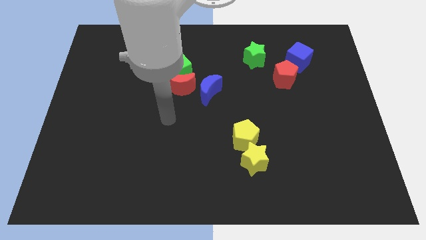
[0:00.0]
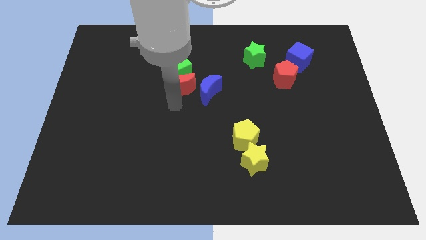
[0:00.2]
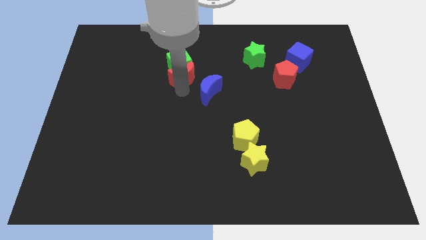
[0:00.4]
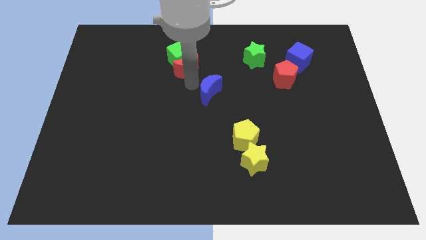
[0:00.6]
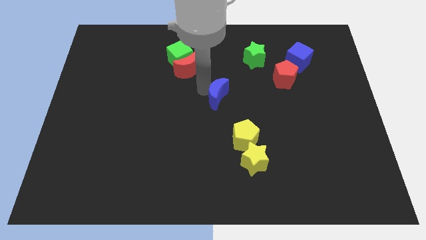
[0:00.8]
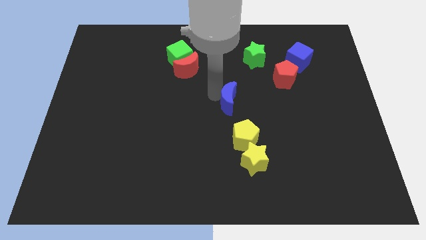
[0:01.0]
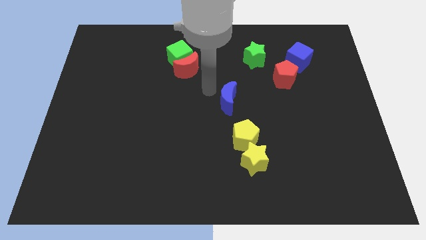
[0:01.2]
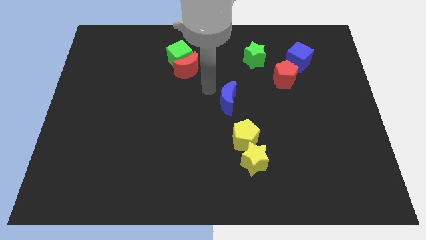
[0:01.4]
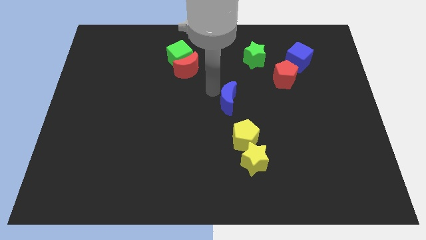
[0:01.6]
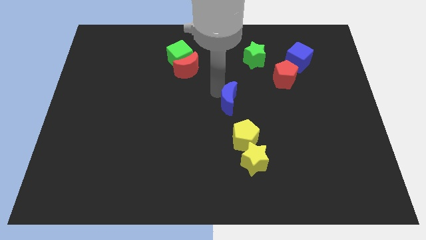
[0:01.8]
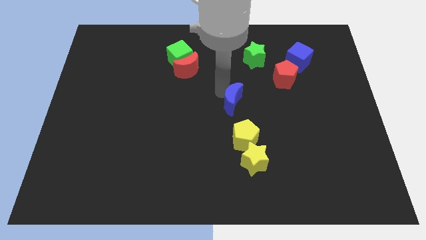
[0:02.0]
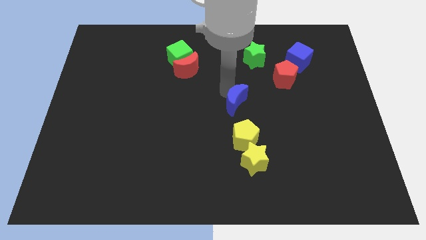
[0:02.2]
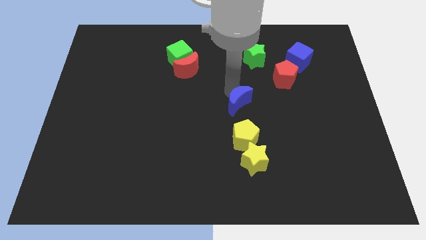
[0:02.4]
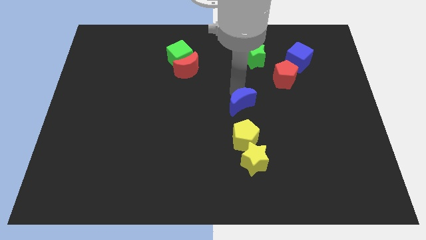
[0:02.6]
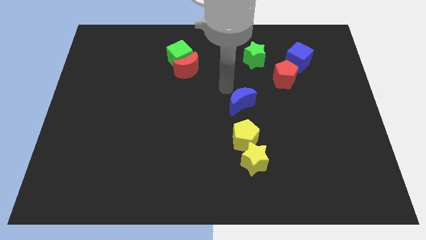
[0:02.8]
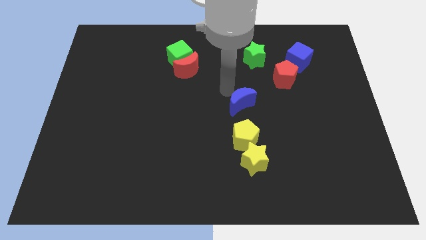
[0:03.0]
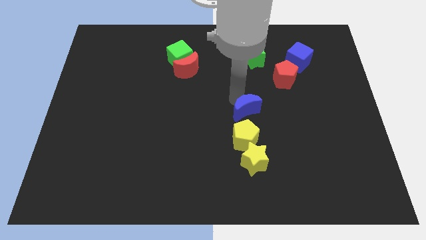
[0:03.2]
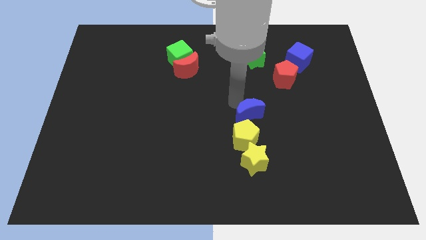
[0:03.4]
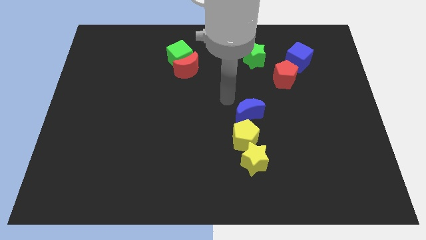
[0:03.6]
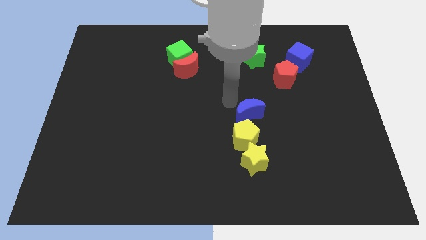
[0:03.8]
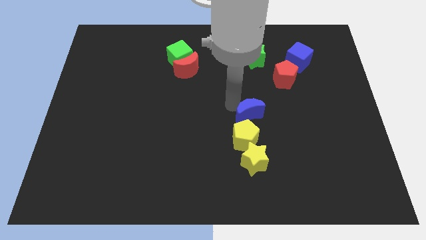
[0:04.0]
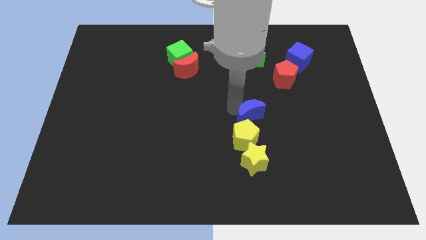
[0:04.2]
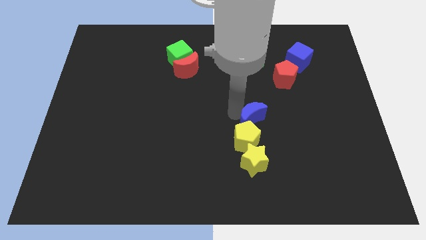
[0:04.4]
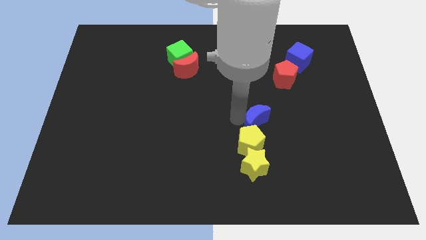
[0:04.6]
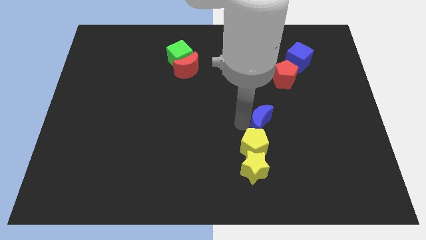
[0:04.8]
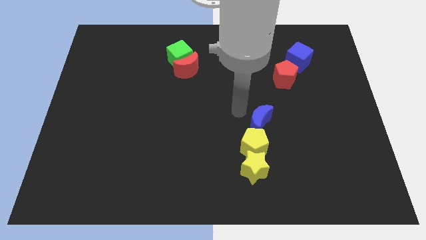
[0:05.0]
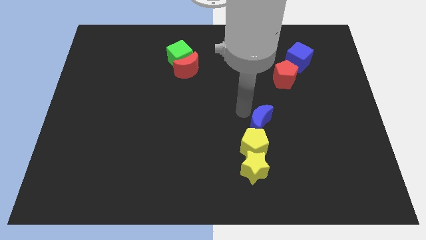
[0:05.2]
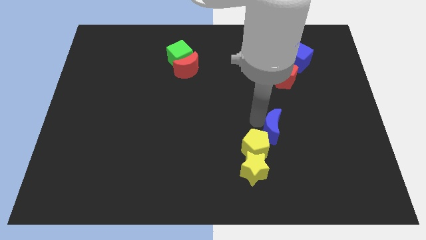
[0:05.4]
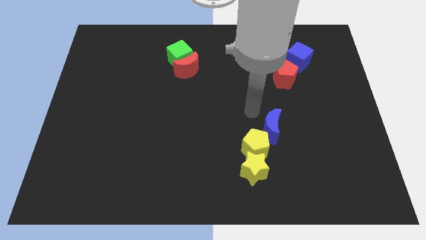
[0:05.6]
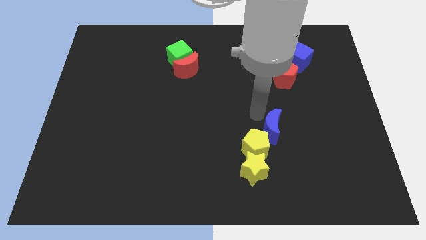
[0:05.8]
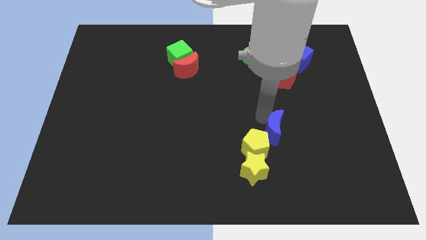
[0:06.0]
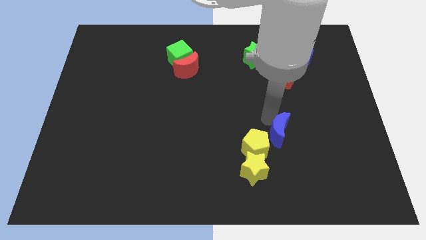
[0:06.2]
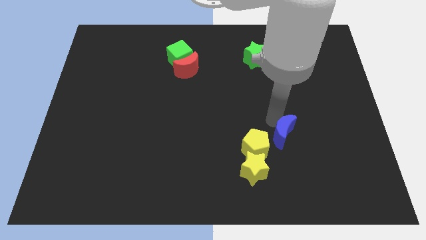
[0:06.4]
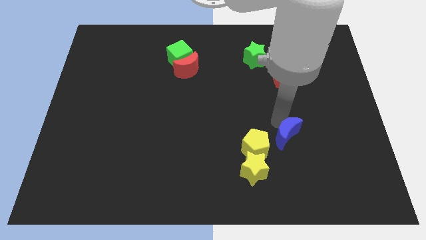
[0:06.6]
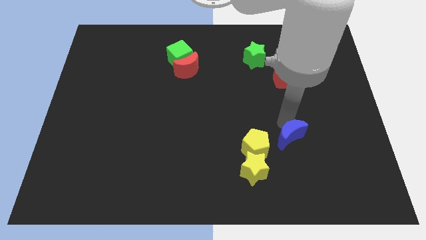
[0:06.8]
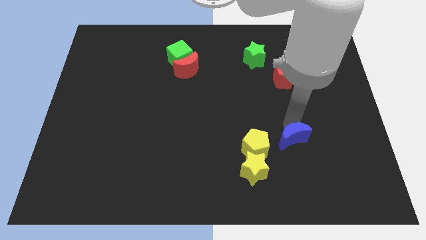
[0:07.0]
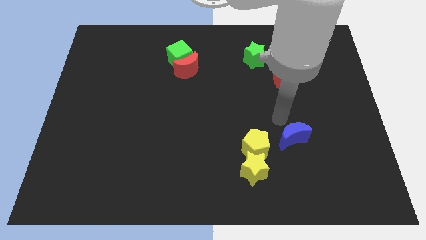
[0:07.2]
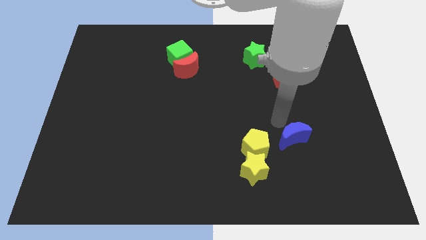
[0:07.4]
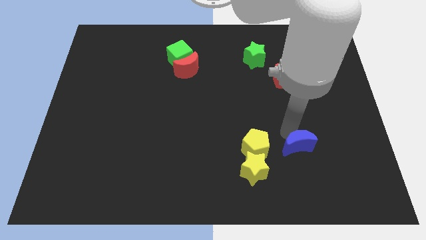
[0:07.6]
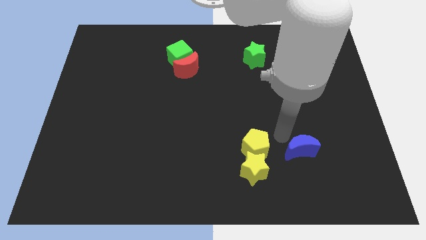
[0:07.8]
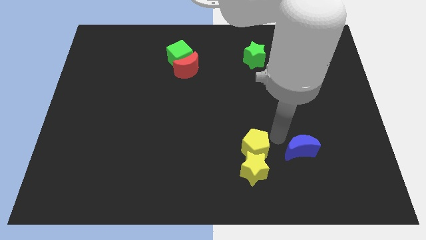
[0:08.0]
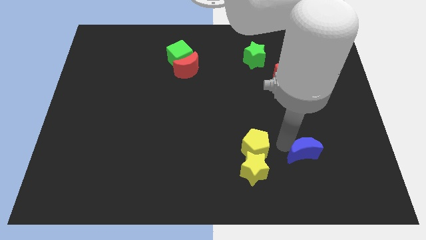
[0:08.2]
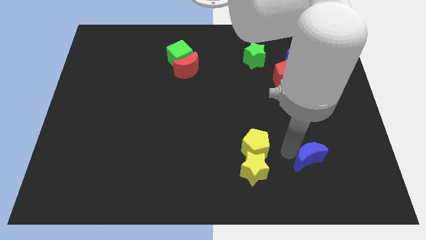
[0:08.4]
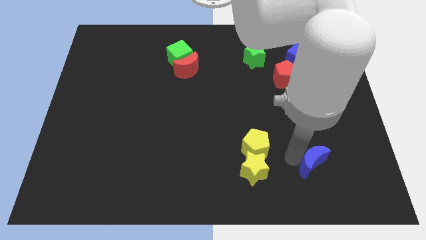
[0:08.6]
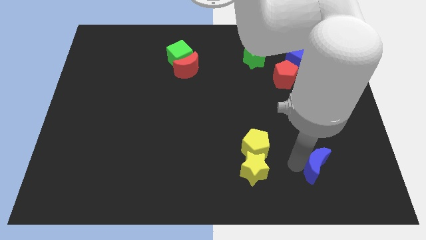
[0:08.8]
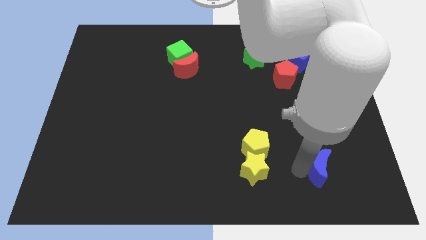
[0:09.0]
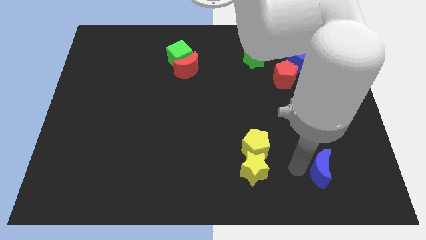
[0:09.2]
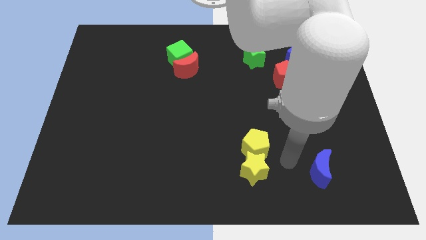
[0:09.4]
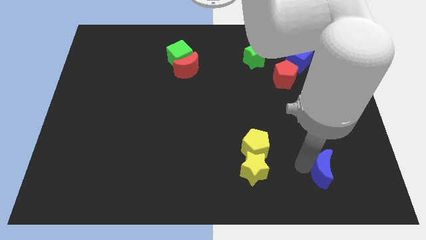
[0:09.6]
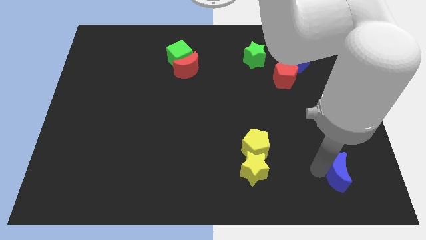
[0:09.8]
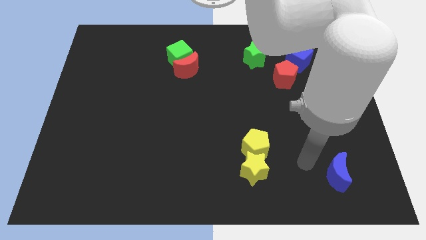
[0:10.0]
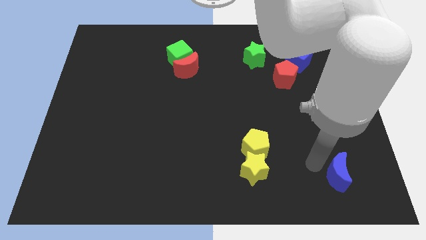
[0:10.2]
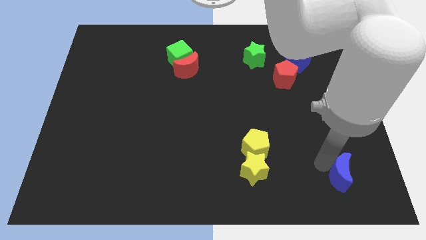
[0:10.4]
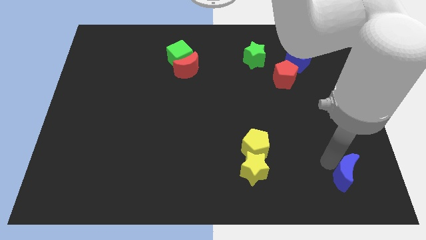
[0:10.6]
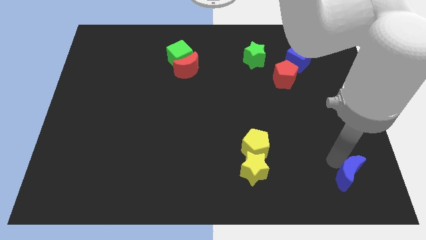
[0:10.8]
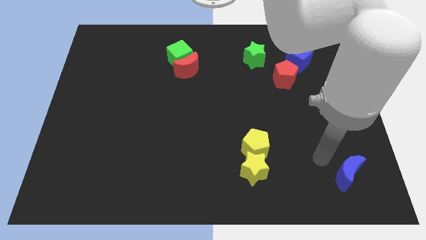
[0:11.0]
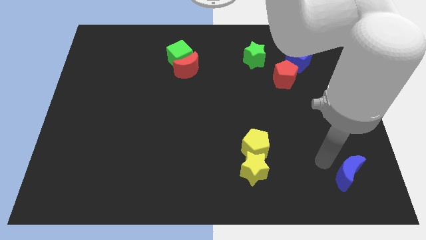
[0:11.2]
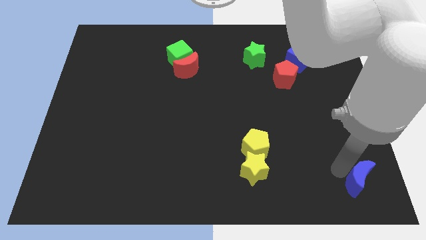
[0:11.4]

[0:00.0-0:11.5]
put the blue moon to the bottom right corner
